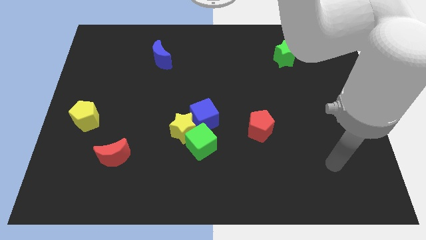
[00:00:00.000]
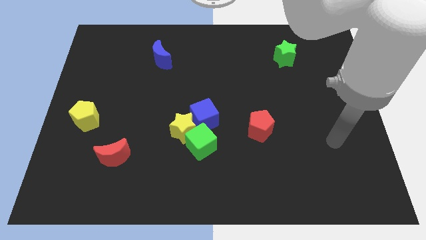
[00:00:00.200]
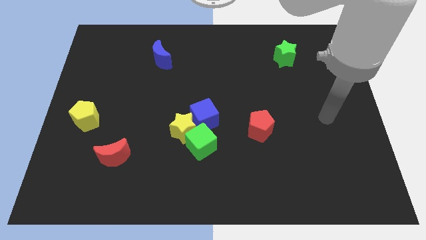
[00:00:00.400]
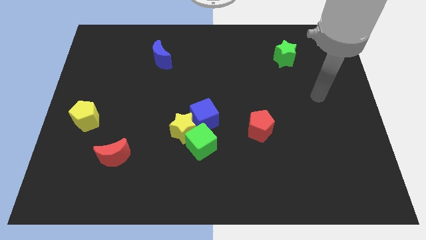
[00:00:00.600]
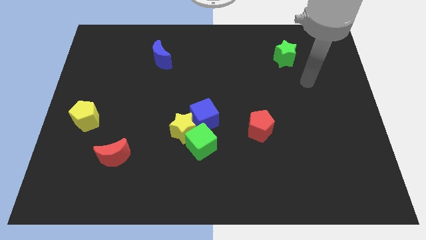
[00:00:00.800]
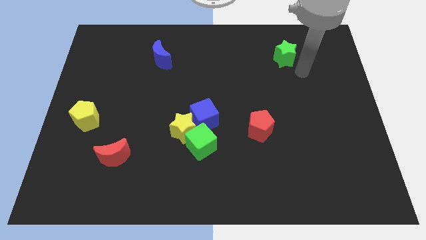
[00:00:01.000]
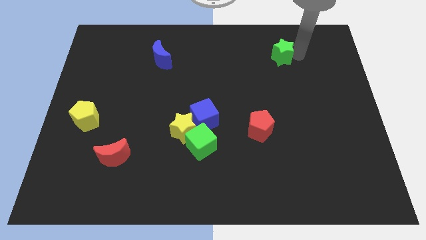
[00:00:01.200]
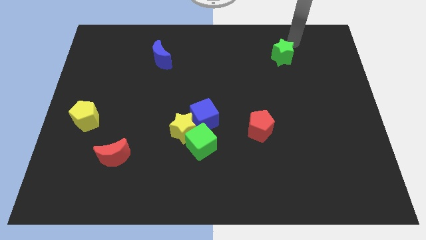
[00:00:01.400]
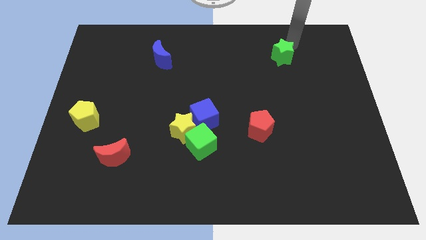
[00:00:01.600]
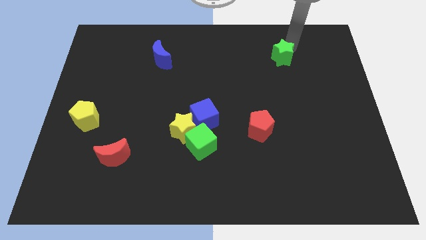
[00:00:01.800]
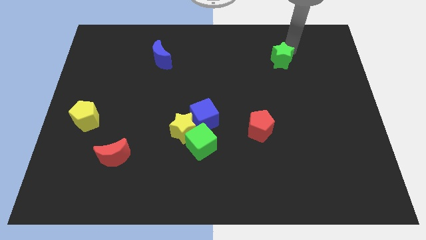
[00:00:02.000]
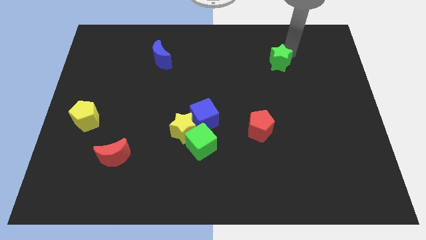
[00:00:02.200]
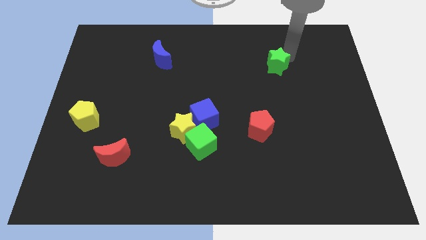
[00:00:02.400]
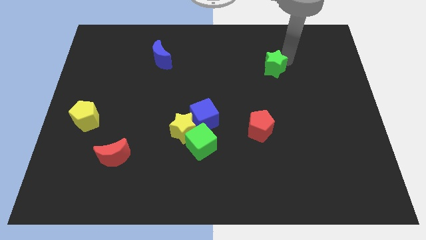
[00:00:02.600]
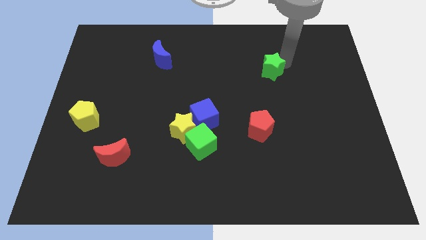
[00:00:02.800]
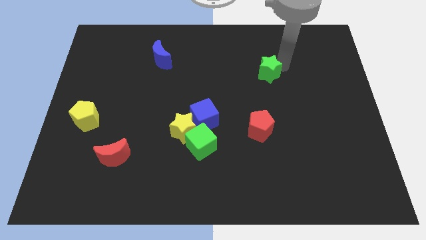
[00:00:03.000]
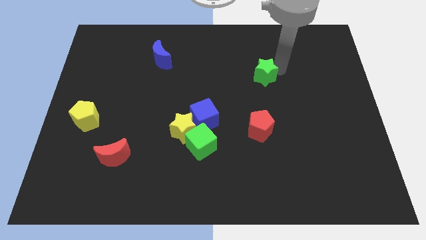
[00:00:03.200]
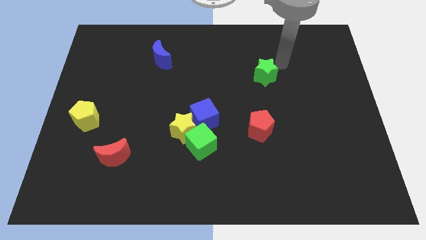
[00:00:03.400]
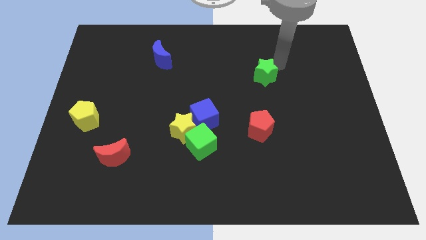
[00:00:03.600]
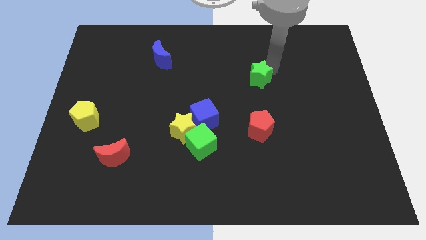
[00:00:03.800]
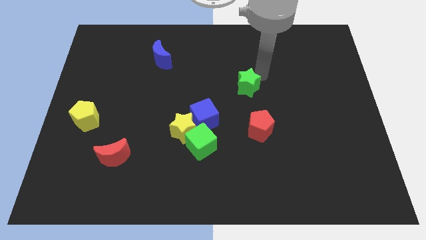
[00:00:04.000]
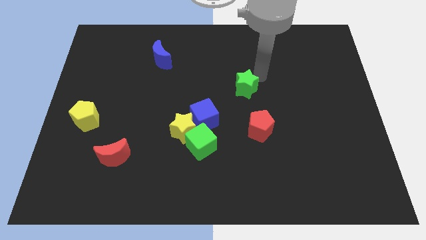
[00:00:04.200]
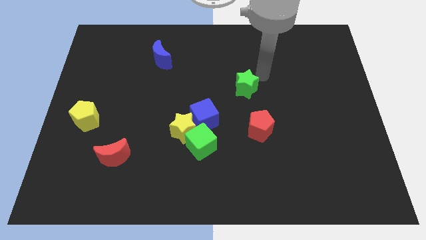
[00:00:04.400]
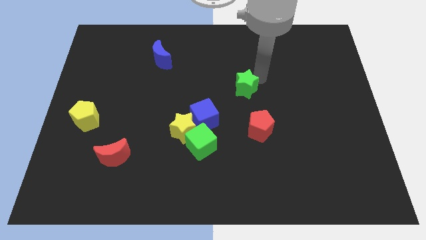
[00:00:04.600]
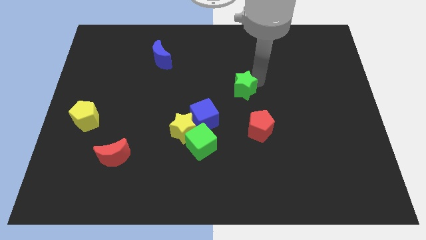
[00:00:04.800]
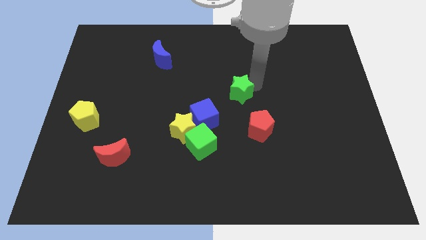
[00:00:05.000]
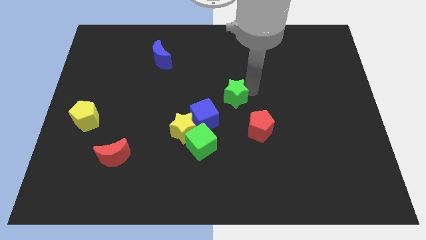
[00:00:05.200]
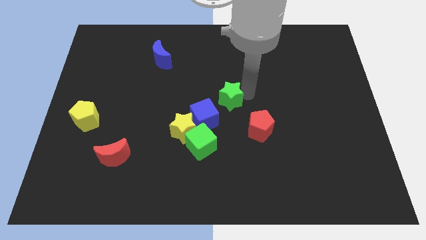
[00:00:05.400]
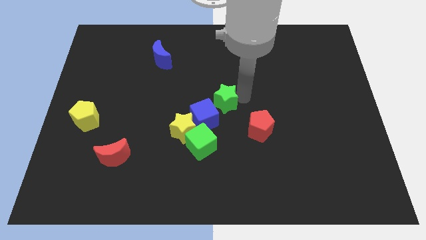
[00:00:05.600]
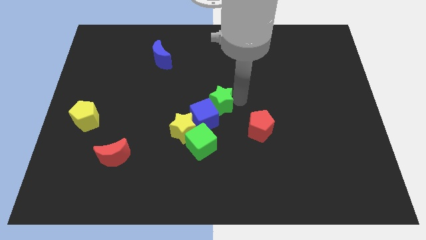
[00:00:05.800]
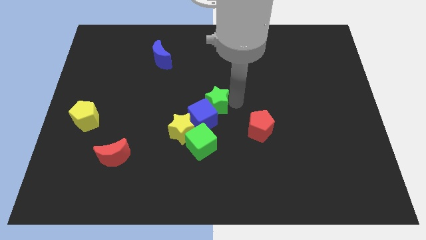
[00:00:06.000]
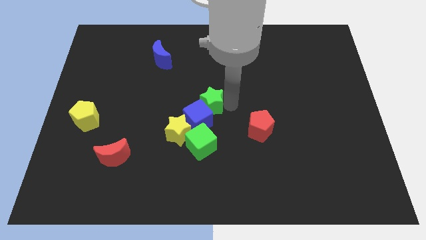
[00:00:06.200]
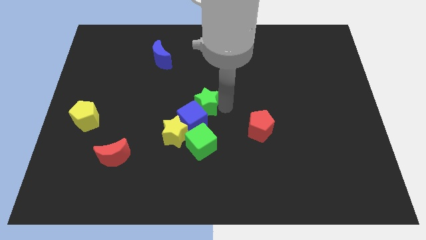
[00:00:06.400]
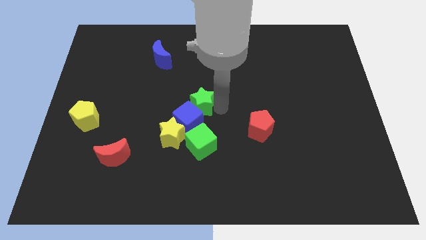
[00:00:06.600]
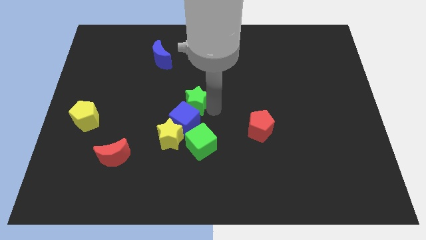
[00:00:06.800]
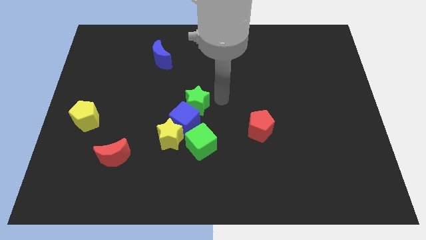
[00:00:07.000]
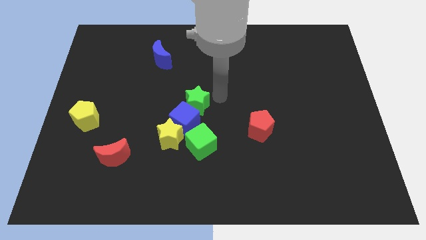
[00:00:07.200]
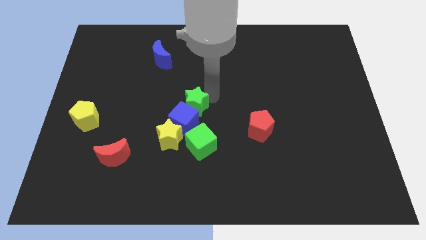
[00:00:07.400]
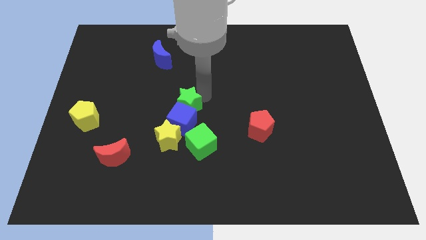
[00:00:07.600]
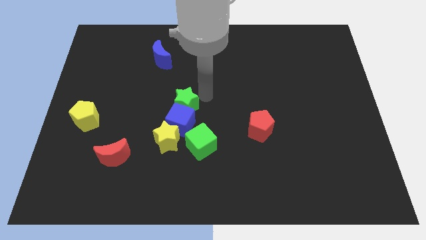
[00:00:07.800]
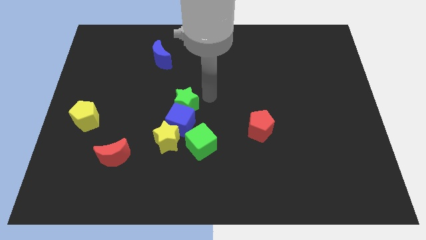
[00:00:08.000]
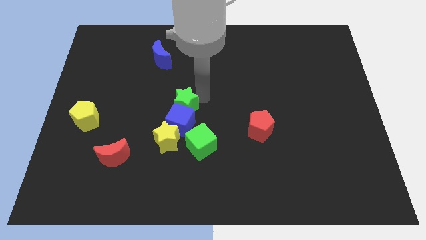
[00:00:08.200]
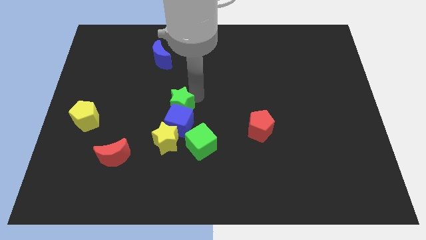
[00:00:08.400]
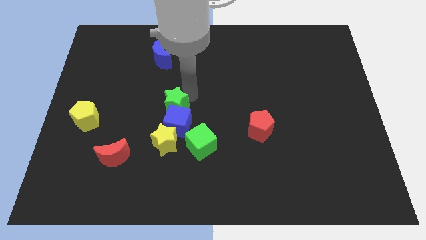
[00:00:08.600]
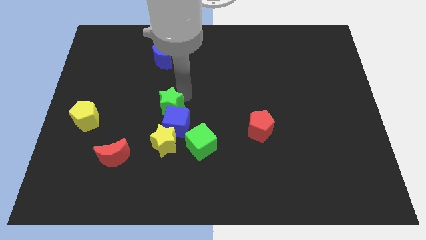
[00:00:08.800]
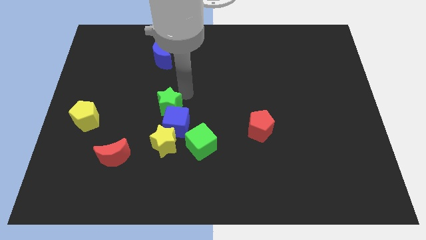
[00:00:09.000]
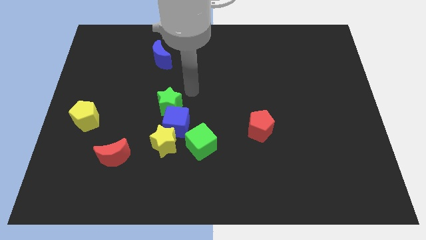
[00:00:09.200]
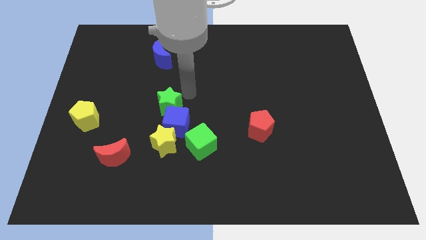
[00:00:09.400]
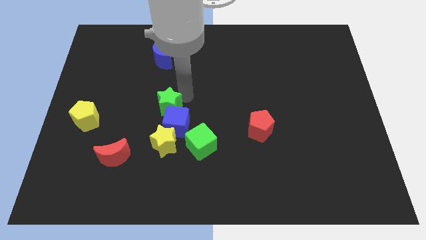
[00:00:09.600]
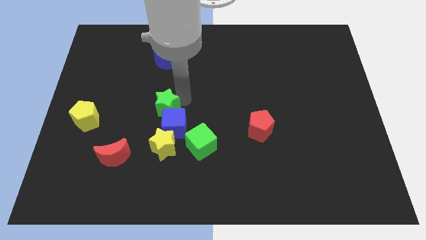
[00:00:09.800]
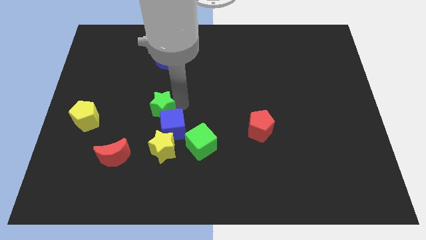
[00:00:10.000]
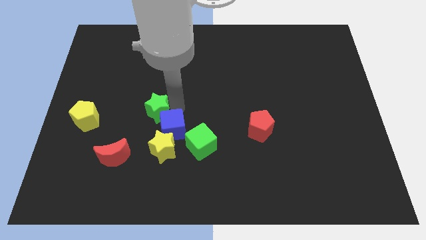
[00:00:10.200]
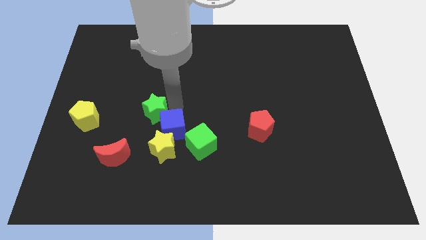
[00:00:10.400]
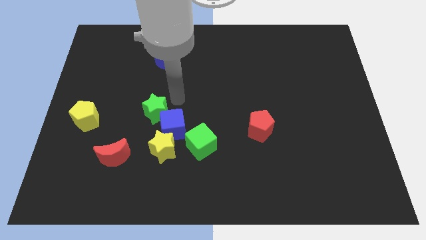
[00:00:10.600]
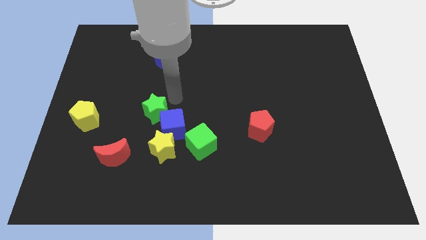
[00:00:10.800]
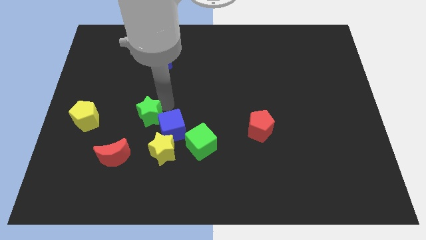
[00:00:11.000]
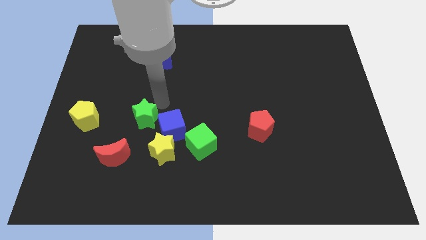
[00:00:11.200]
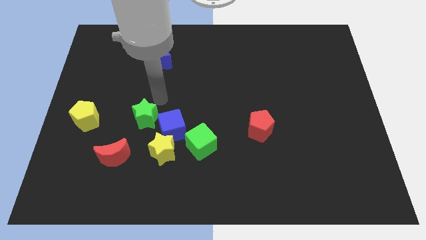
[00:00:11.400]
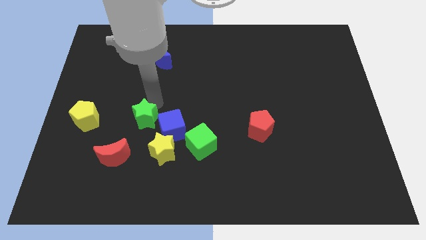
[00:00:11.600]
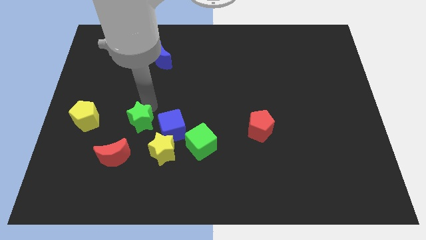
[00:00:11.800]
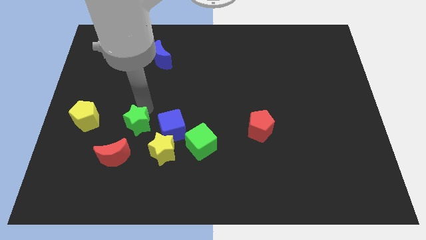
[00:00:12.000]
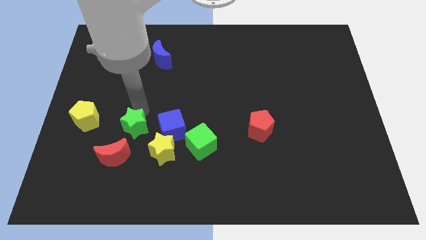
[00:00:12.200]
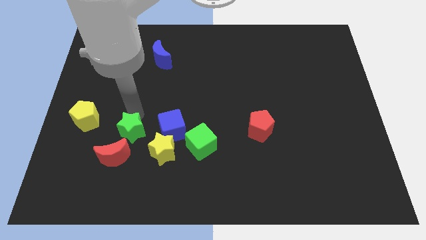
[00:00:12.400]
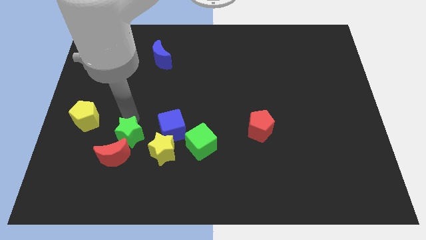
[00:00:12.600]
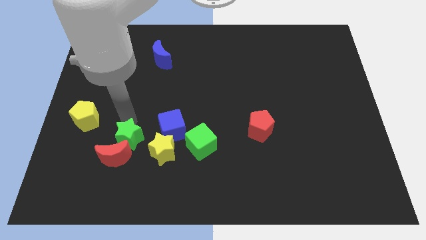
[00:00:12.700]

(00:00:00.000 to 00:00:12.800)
slide the green star towards the red moon

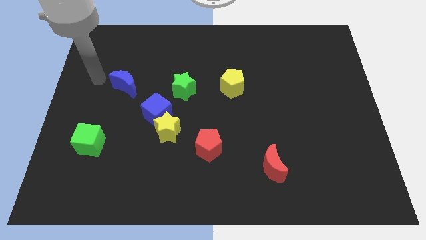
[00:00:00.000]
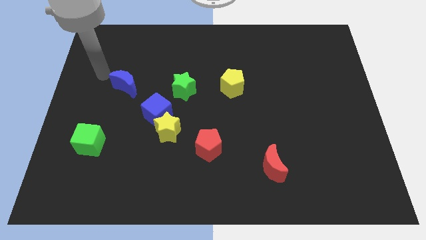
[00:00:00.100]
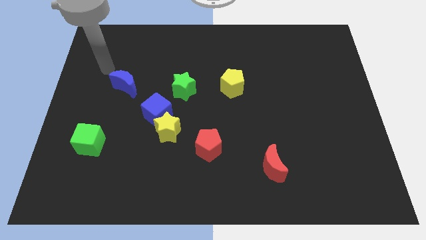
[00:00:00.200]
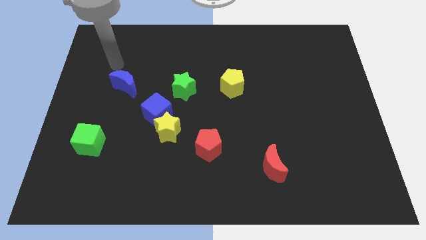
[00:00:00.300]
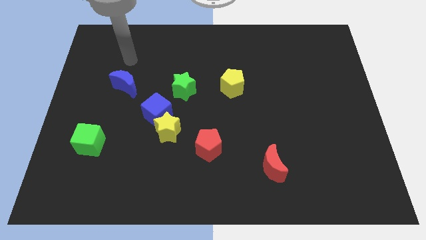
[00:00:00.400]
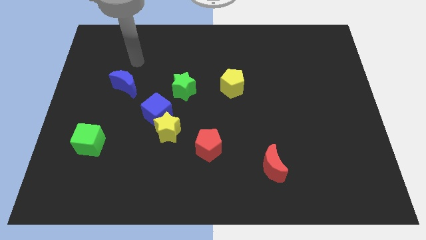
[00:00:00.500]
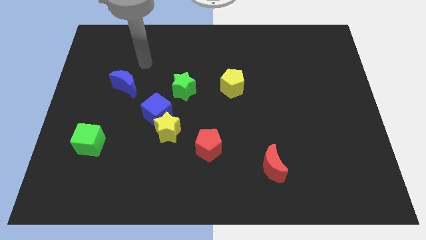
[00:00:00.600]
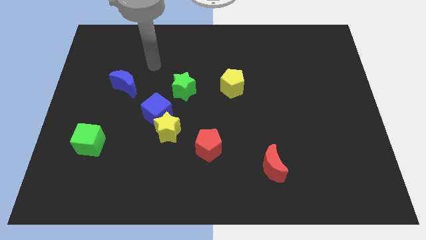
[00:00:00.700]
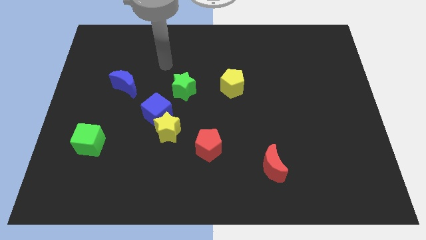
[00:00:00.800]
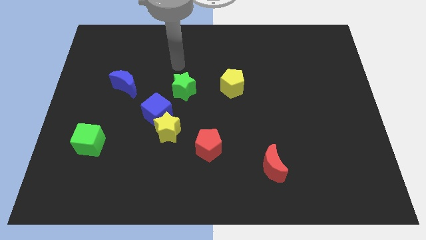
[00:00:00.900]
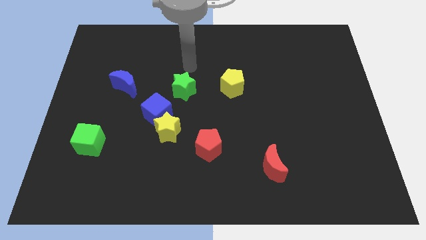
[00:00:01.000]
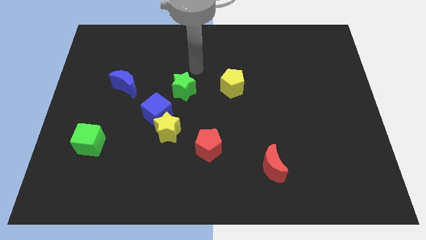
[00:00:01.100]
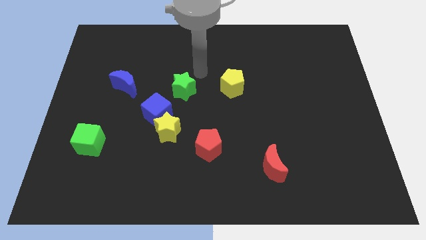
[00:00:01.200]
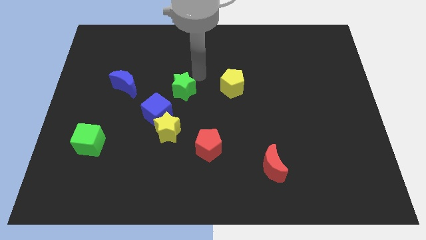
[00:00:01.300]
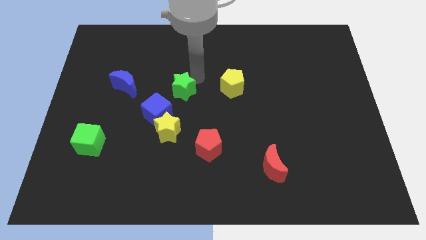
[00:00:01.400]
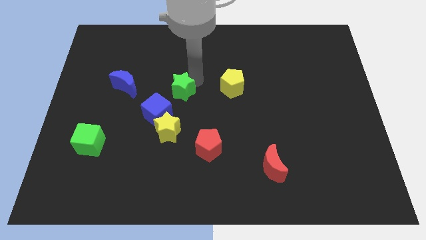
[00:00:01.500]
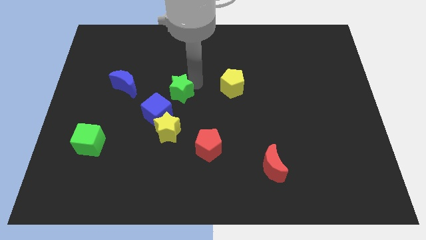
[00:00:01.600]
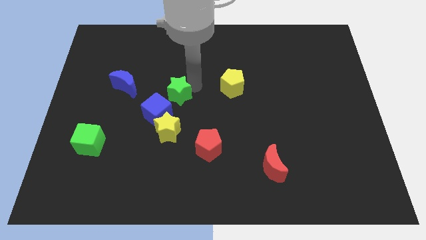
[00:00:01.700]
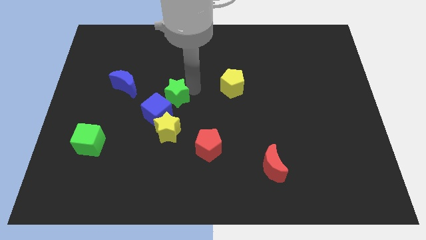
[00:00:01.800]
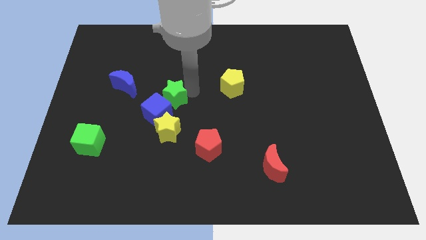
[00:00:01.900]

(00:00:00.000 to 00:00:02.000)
put the green star to the blue cube
